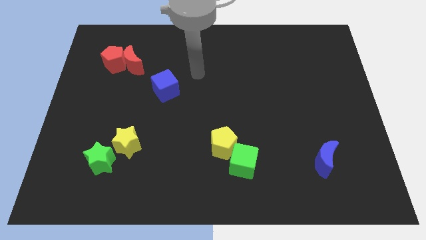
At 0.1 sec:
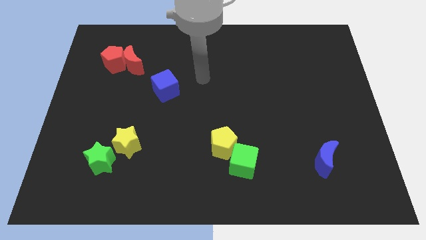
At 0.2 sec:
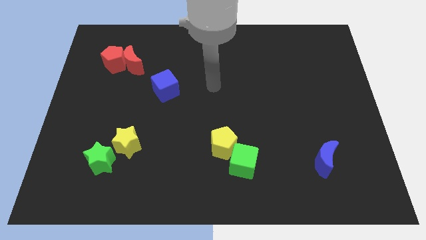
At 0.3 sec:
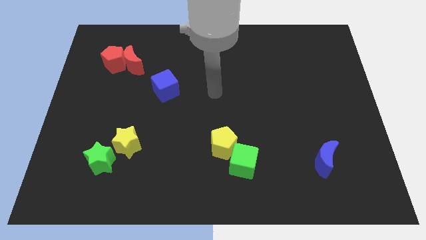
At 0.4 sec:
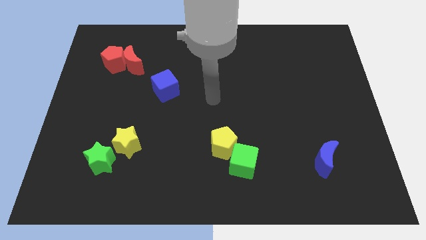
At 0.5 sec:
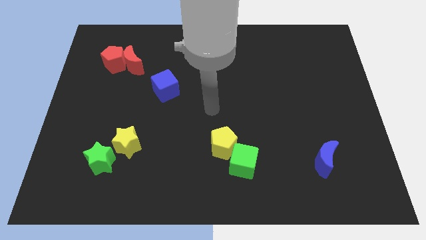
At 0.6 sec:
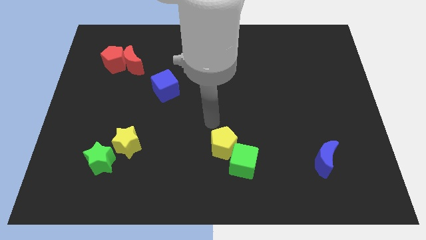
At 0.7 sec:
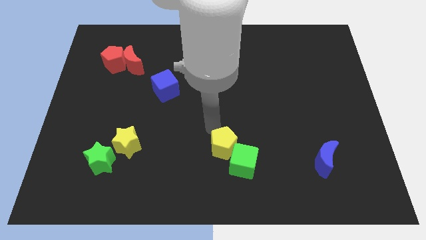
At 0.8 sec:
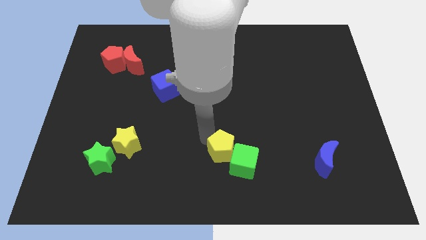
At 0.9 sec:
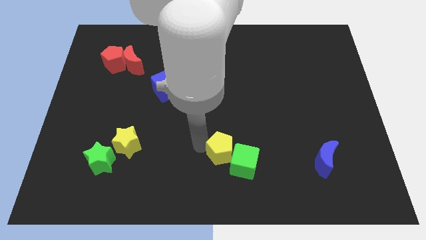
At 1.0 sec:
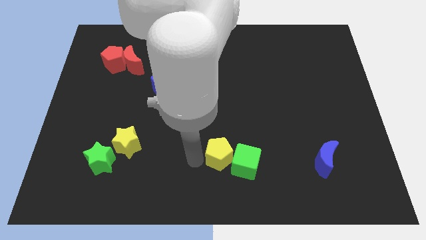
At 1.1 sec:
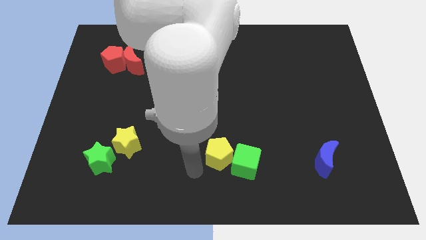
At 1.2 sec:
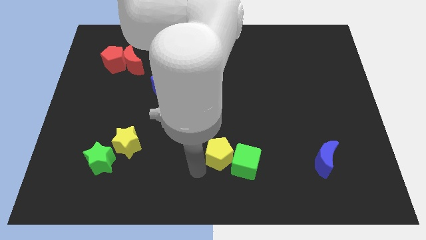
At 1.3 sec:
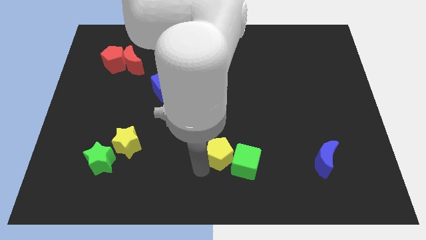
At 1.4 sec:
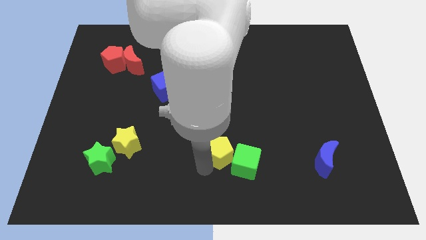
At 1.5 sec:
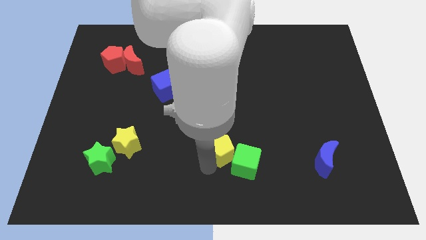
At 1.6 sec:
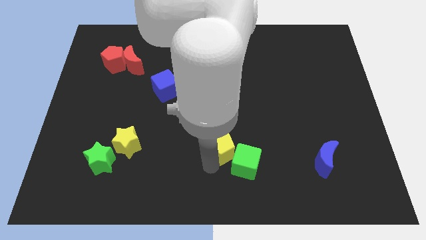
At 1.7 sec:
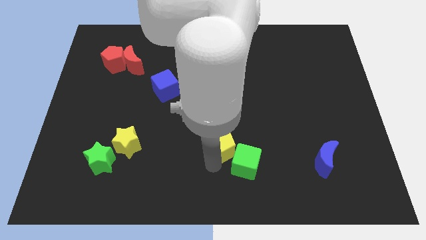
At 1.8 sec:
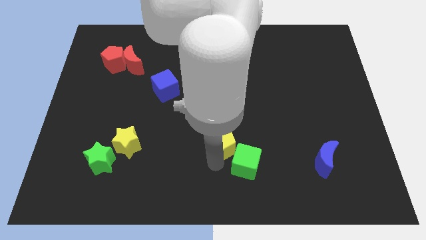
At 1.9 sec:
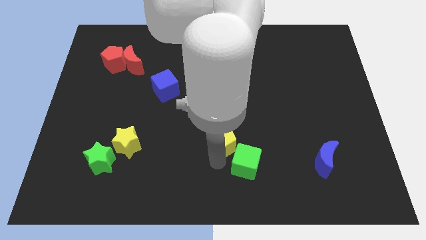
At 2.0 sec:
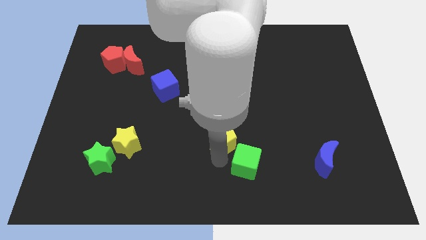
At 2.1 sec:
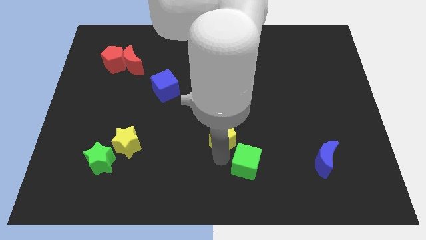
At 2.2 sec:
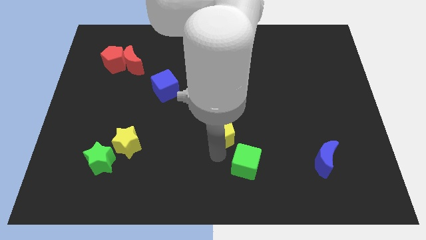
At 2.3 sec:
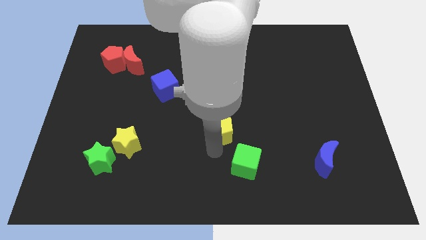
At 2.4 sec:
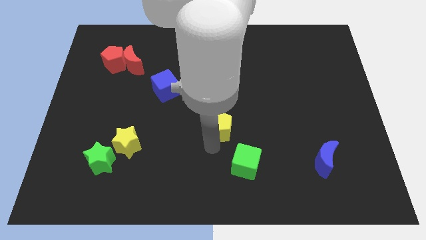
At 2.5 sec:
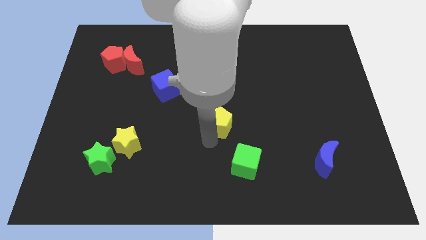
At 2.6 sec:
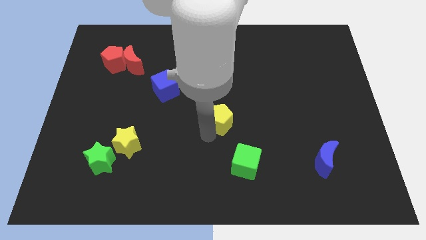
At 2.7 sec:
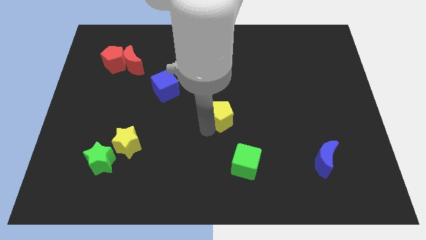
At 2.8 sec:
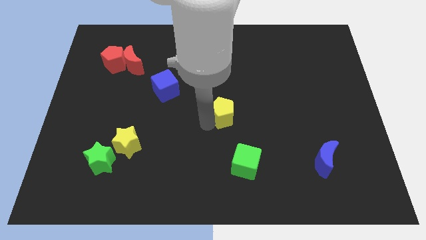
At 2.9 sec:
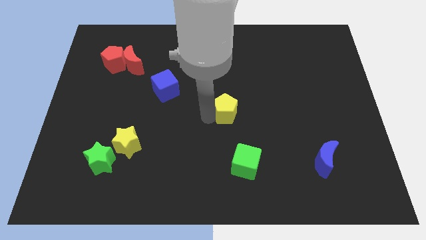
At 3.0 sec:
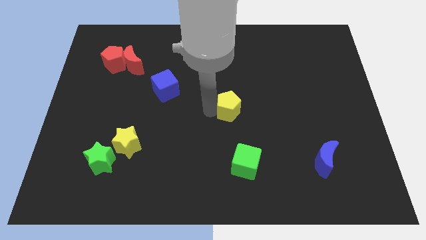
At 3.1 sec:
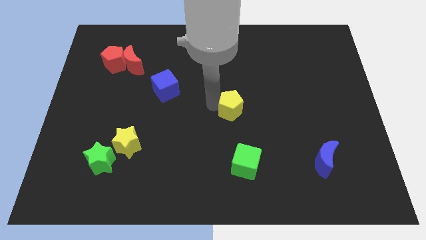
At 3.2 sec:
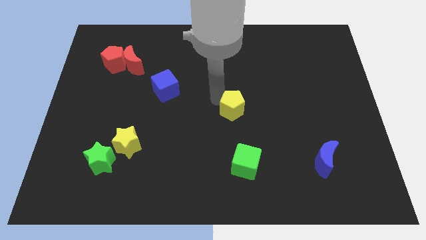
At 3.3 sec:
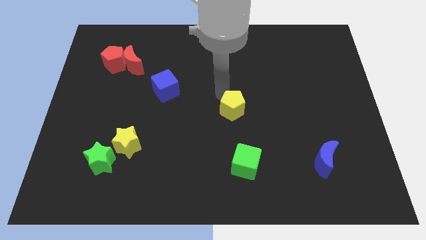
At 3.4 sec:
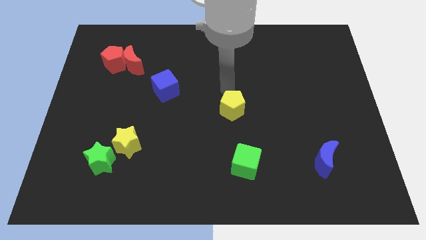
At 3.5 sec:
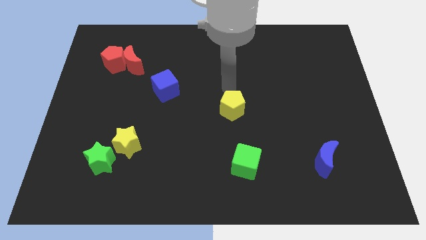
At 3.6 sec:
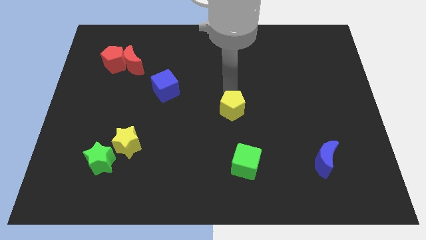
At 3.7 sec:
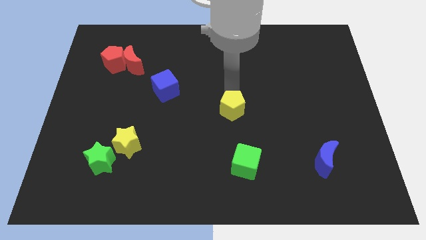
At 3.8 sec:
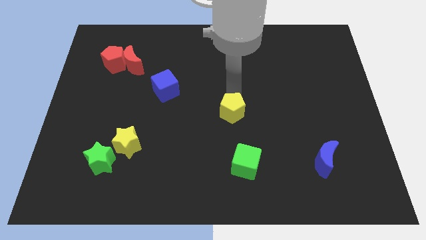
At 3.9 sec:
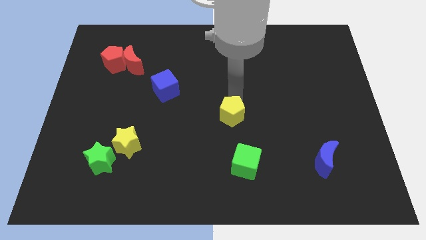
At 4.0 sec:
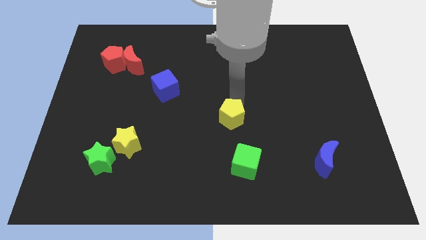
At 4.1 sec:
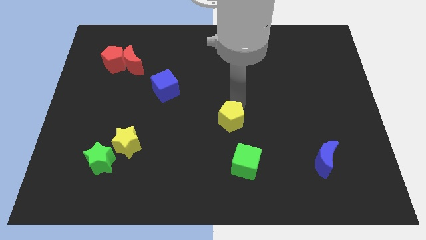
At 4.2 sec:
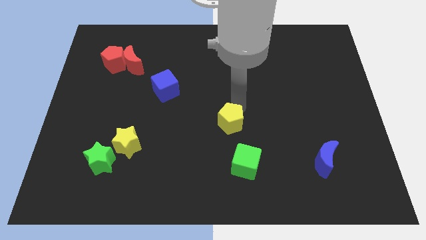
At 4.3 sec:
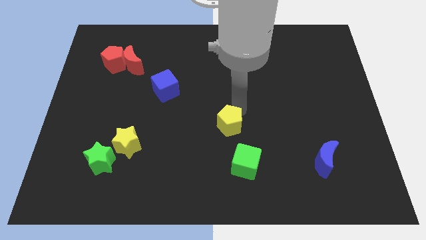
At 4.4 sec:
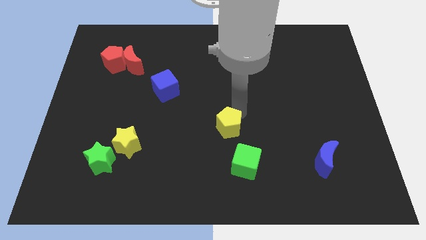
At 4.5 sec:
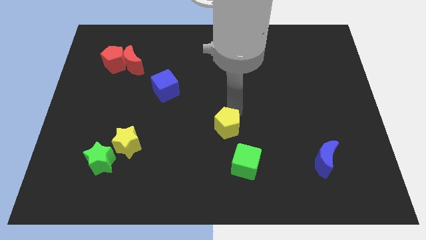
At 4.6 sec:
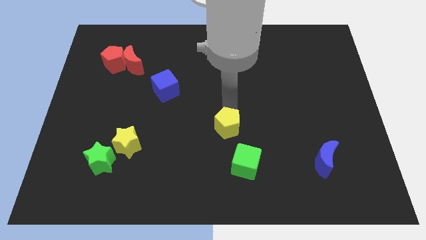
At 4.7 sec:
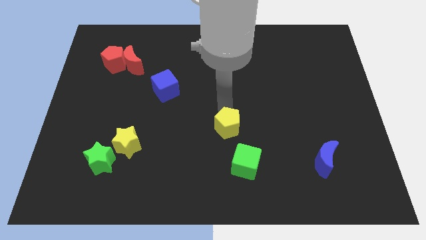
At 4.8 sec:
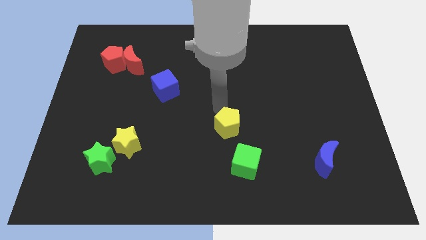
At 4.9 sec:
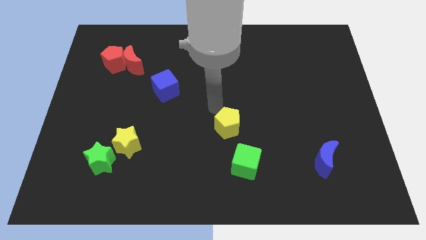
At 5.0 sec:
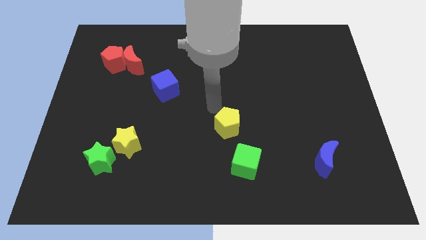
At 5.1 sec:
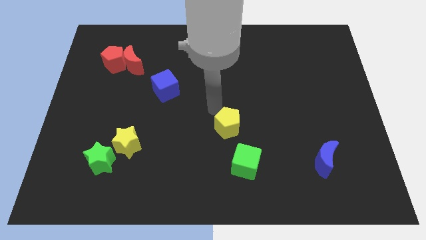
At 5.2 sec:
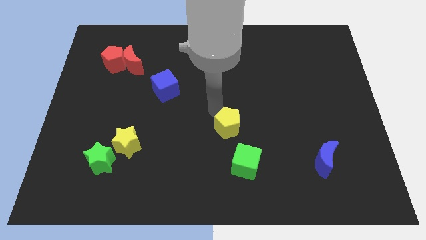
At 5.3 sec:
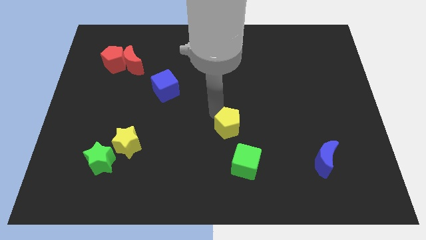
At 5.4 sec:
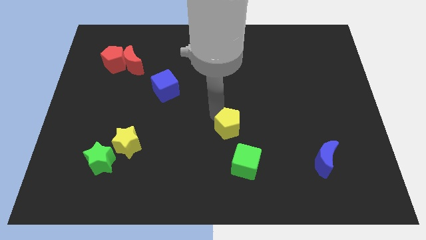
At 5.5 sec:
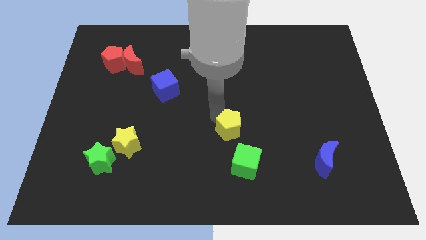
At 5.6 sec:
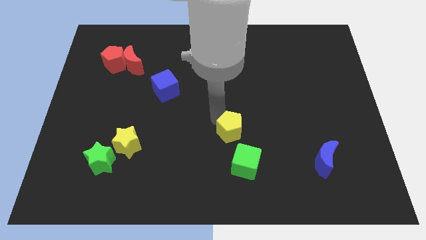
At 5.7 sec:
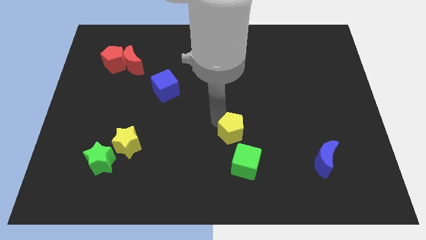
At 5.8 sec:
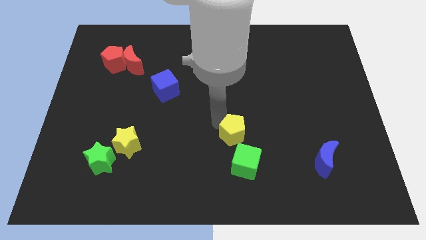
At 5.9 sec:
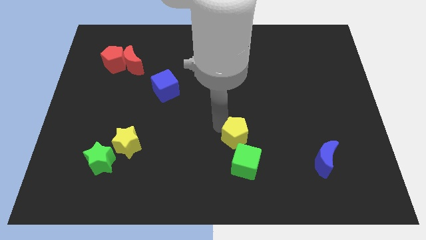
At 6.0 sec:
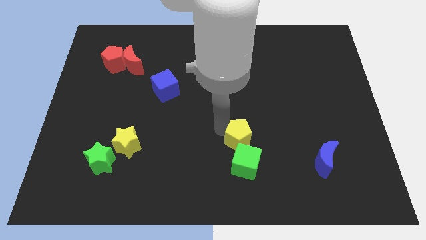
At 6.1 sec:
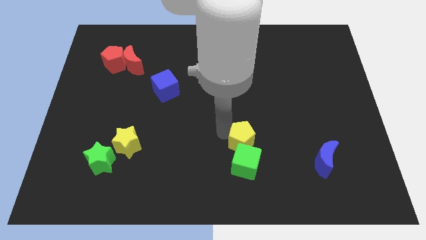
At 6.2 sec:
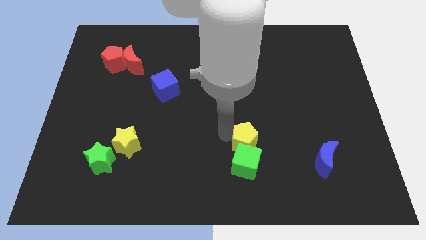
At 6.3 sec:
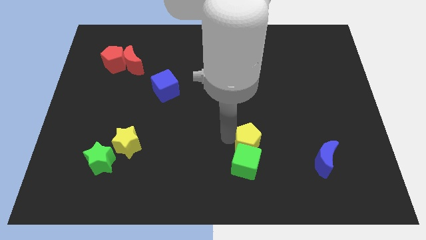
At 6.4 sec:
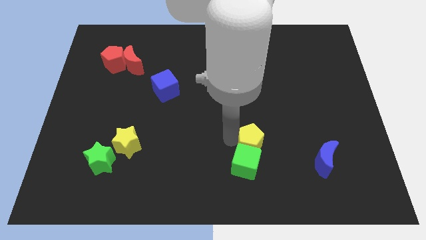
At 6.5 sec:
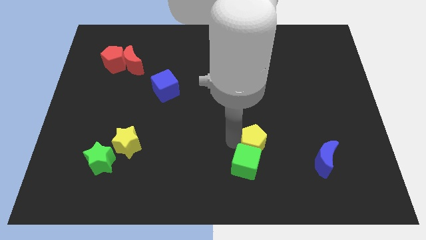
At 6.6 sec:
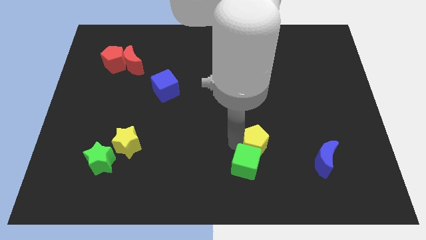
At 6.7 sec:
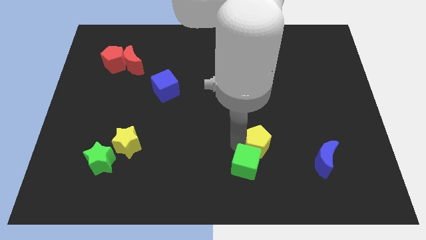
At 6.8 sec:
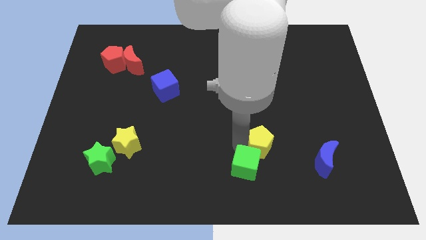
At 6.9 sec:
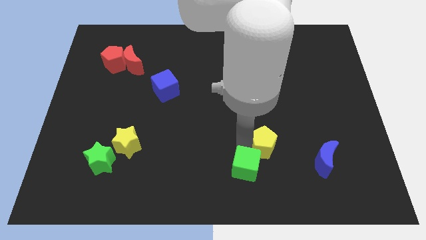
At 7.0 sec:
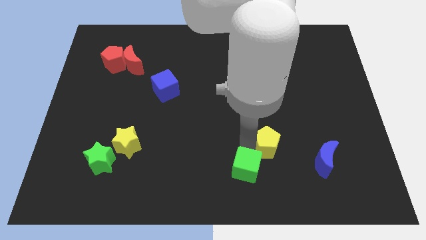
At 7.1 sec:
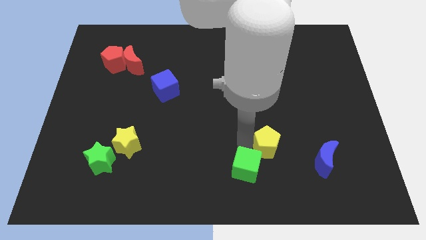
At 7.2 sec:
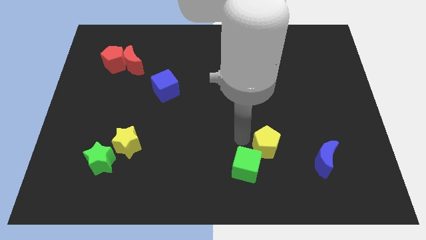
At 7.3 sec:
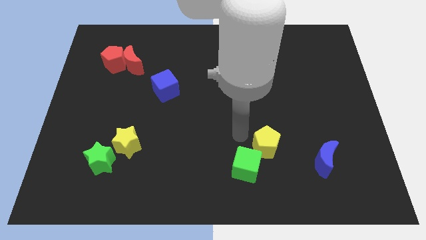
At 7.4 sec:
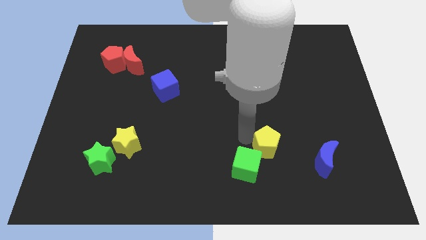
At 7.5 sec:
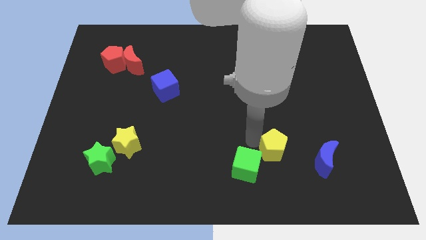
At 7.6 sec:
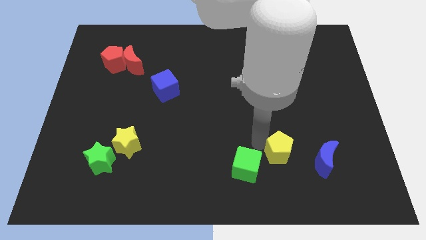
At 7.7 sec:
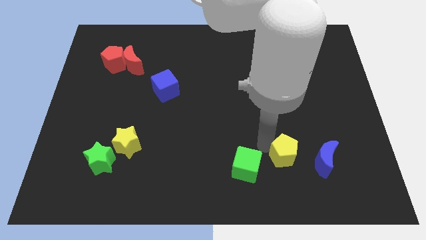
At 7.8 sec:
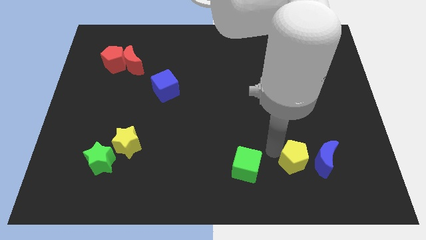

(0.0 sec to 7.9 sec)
slide the yellow pentagon close to the blue moon
